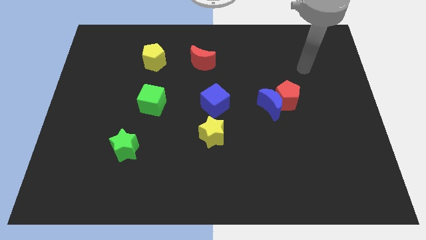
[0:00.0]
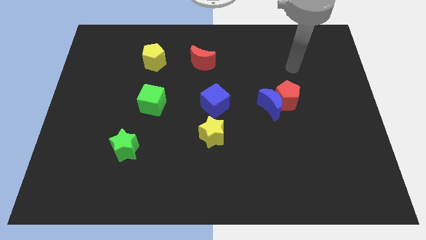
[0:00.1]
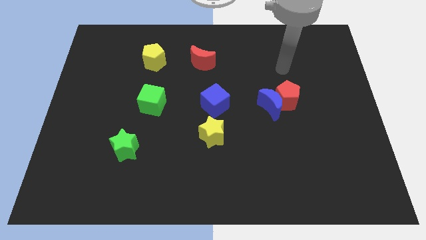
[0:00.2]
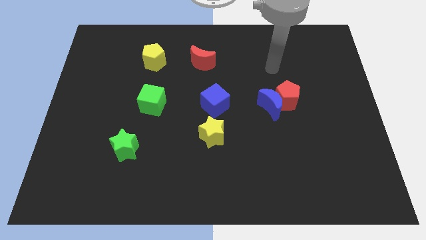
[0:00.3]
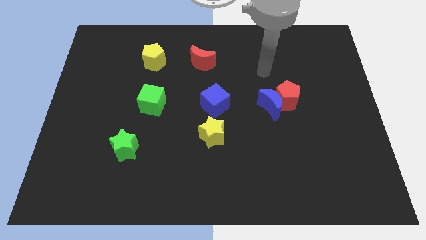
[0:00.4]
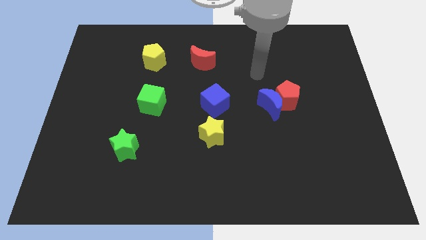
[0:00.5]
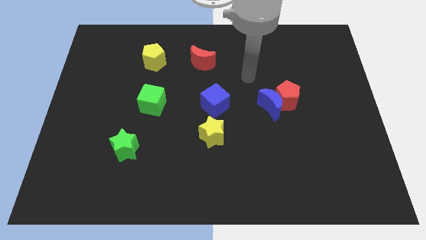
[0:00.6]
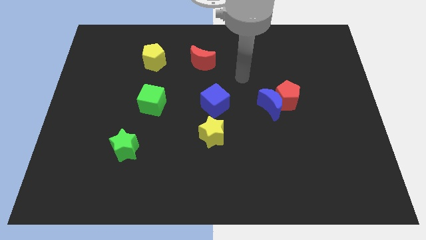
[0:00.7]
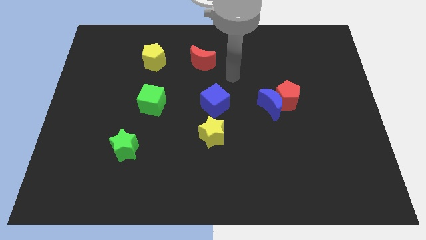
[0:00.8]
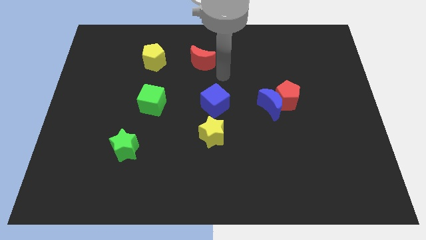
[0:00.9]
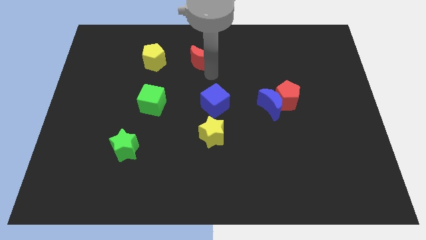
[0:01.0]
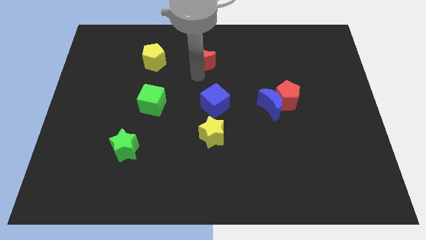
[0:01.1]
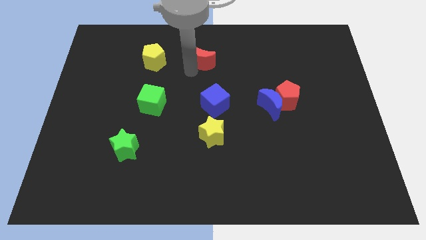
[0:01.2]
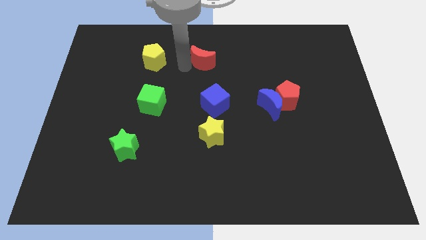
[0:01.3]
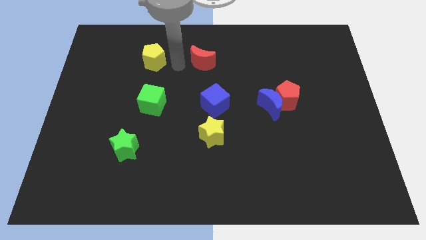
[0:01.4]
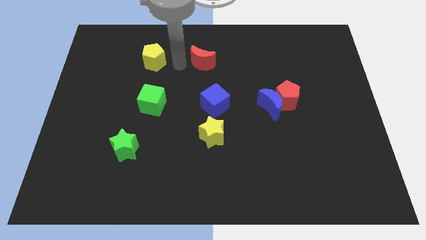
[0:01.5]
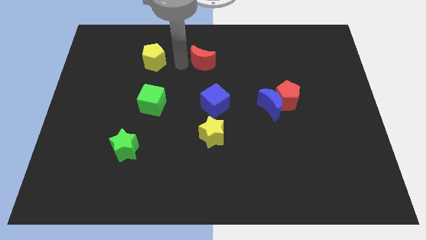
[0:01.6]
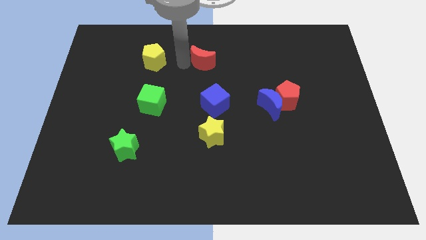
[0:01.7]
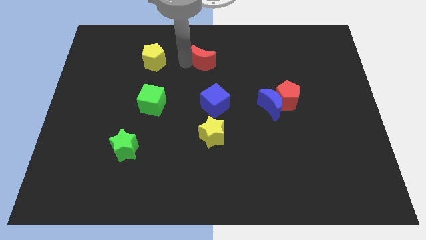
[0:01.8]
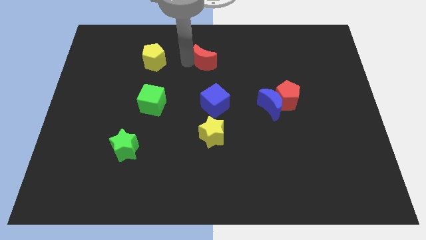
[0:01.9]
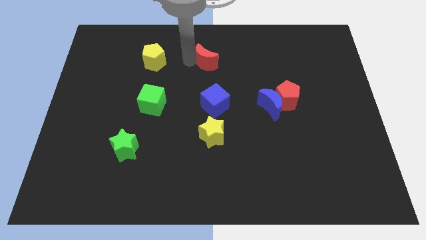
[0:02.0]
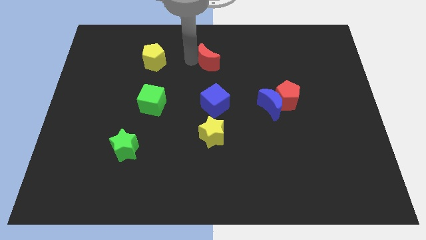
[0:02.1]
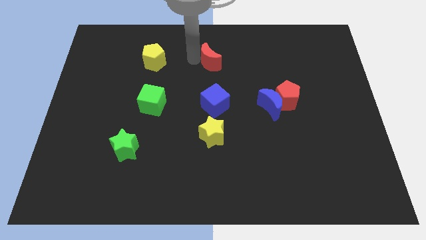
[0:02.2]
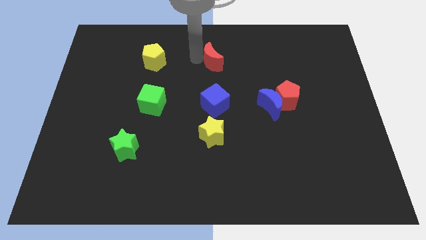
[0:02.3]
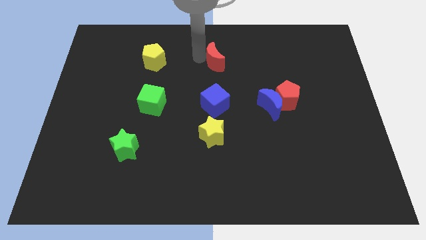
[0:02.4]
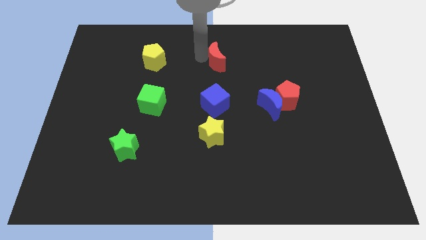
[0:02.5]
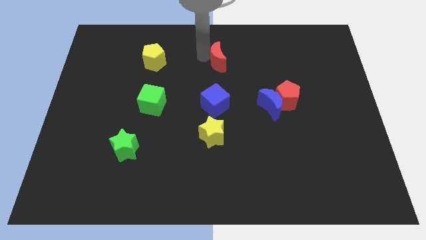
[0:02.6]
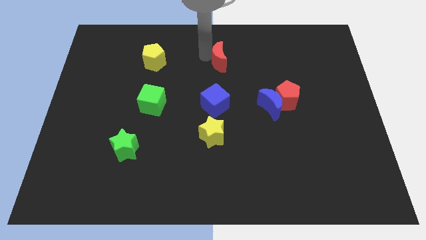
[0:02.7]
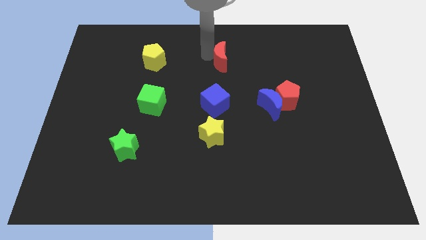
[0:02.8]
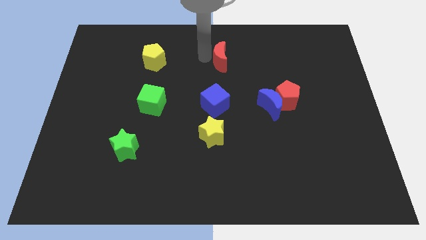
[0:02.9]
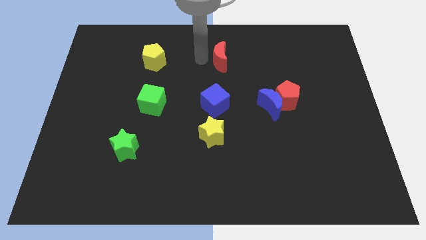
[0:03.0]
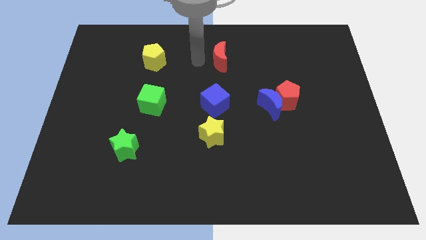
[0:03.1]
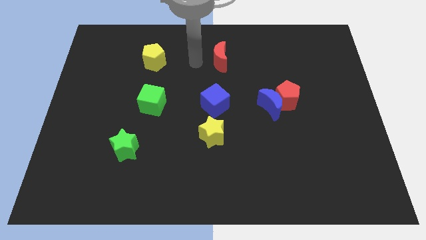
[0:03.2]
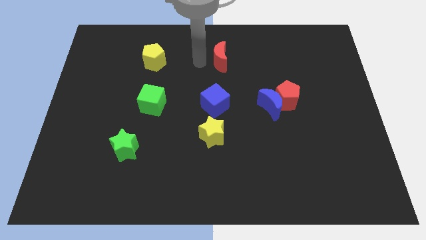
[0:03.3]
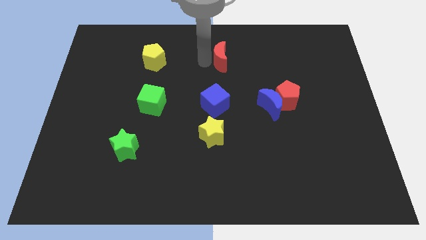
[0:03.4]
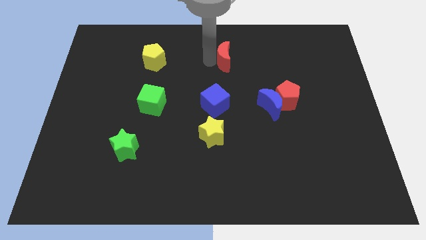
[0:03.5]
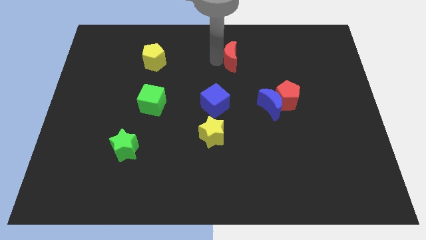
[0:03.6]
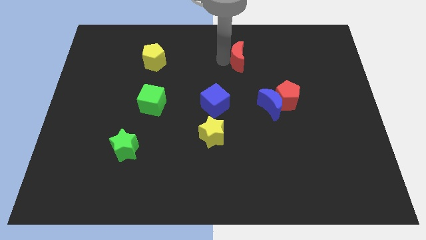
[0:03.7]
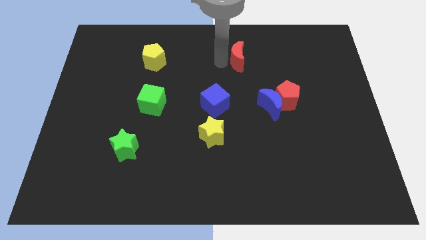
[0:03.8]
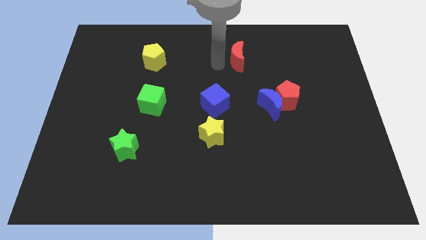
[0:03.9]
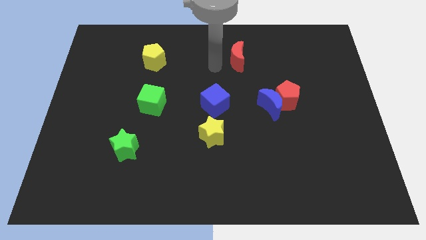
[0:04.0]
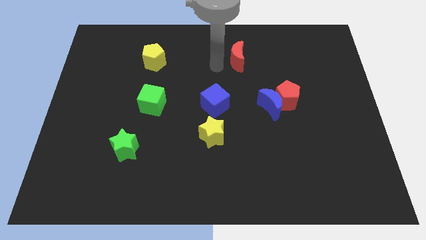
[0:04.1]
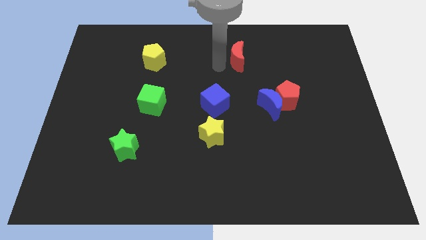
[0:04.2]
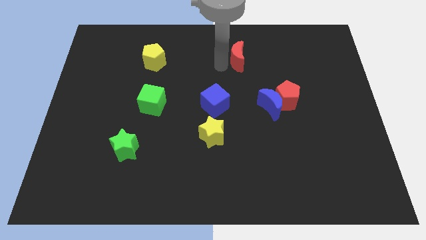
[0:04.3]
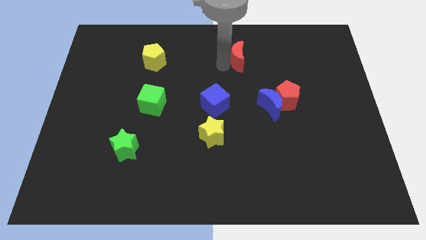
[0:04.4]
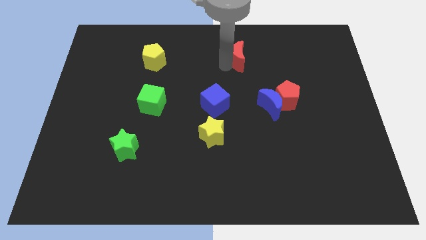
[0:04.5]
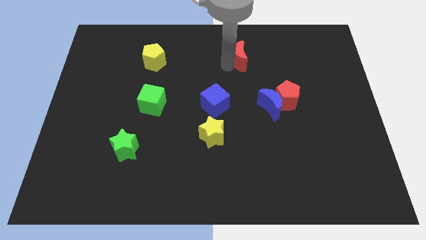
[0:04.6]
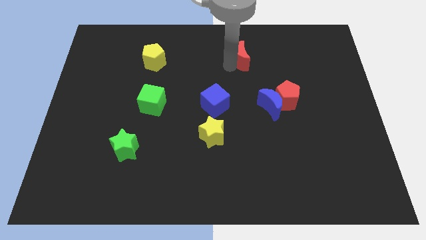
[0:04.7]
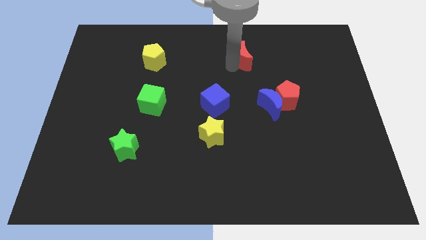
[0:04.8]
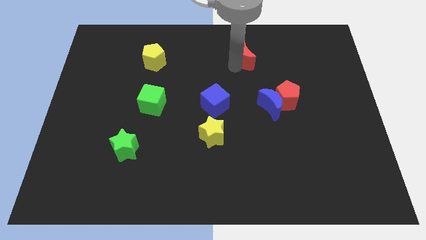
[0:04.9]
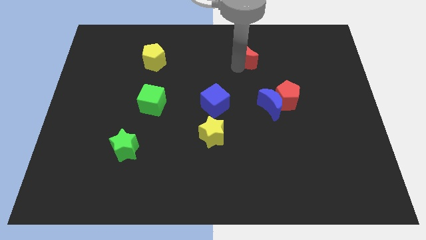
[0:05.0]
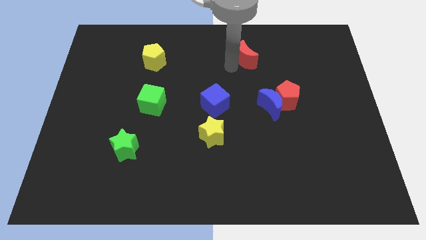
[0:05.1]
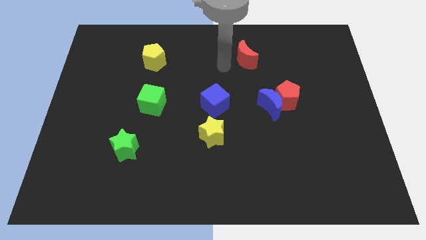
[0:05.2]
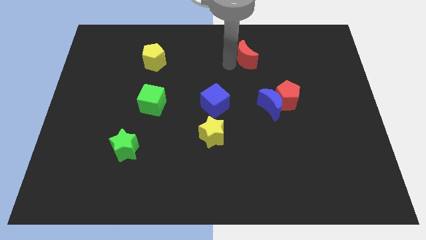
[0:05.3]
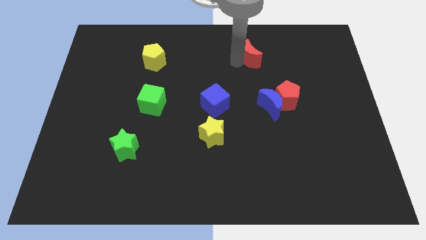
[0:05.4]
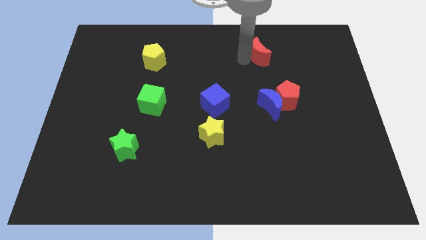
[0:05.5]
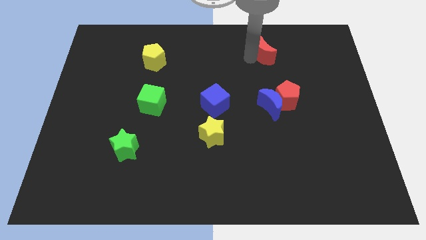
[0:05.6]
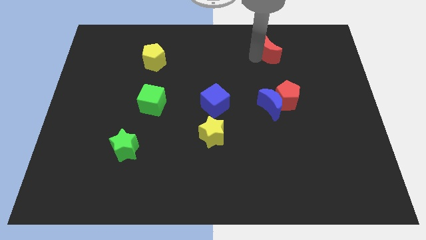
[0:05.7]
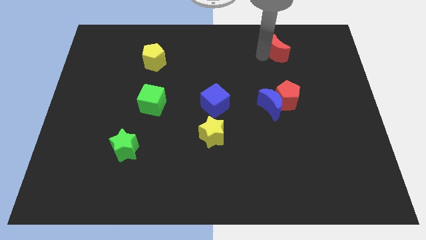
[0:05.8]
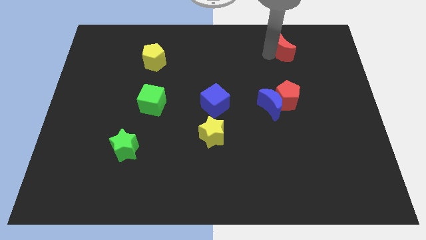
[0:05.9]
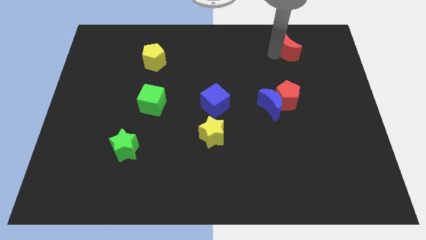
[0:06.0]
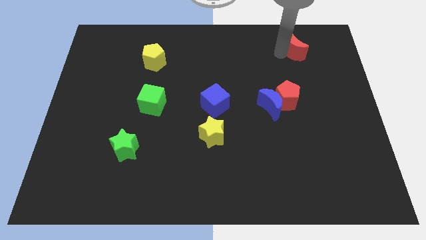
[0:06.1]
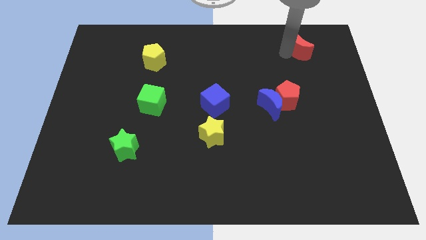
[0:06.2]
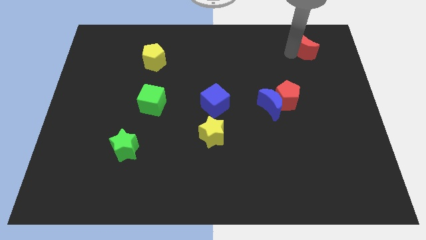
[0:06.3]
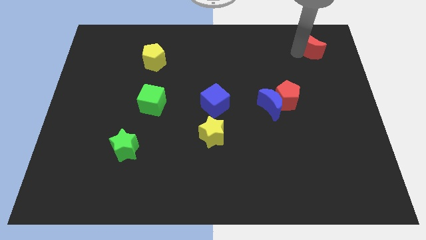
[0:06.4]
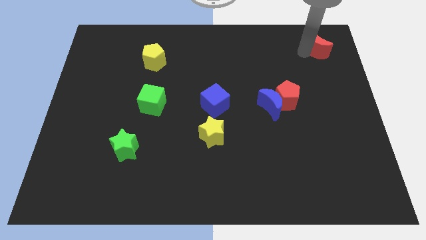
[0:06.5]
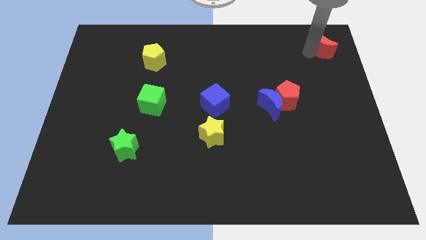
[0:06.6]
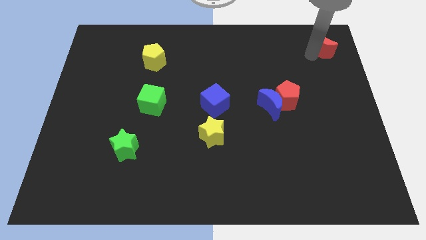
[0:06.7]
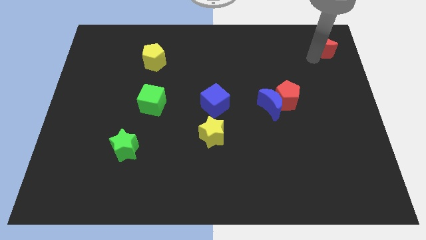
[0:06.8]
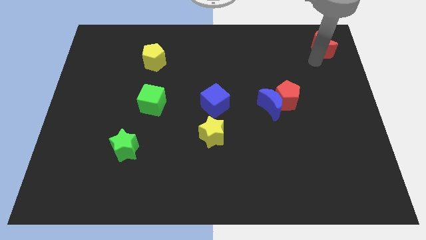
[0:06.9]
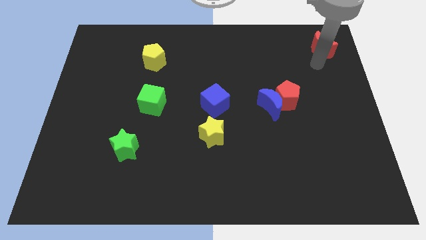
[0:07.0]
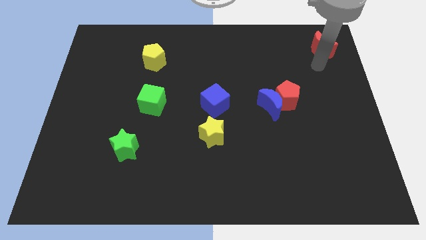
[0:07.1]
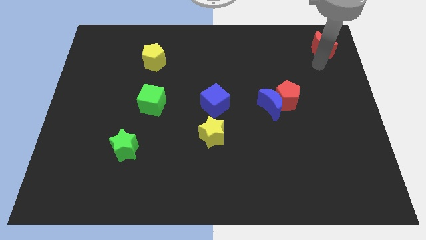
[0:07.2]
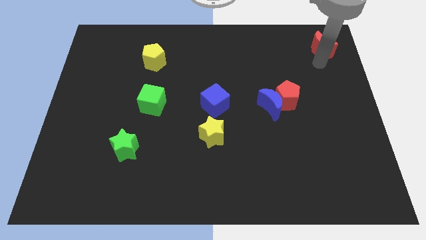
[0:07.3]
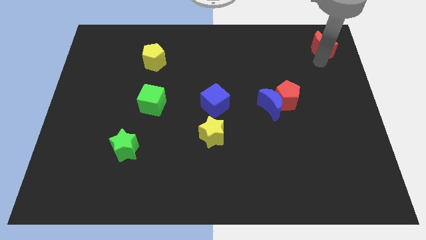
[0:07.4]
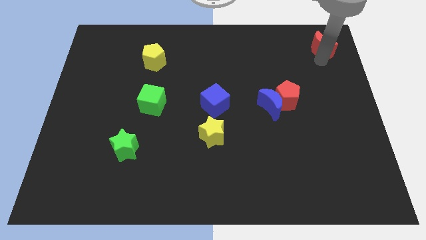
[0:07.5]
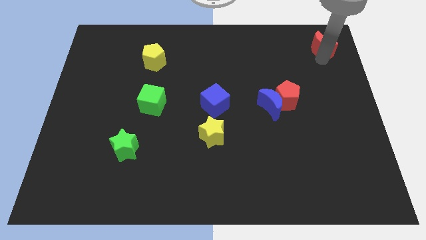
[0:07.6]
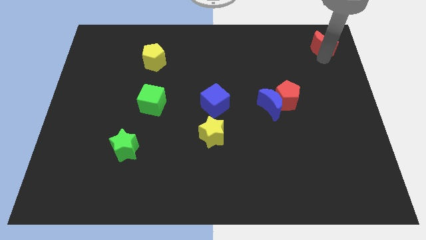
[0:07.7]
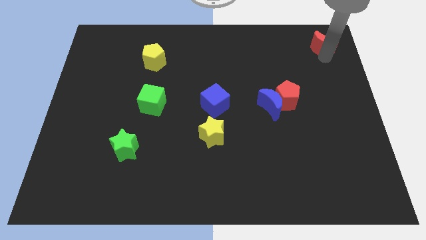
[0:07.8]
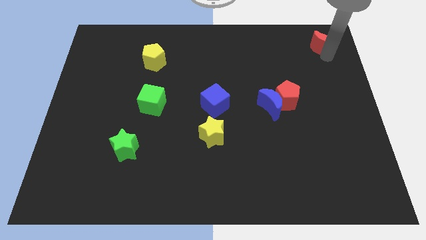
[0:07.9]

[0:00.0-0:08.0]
move the red moon to the top right
